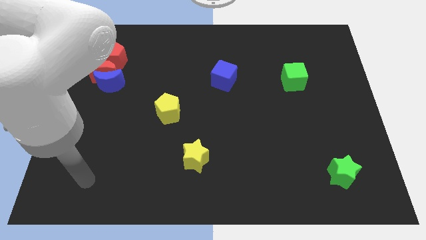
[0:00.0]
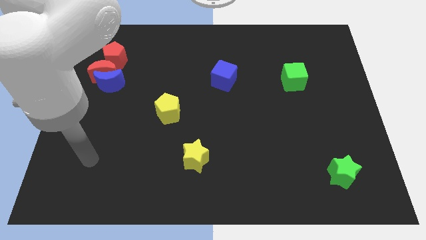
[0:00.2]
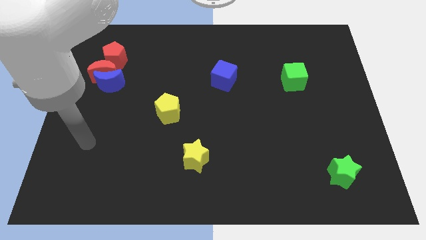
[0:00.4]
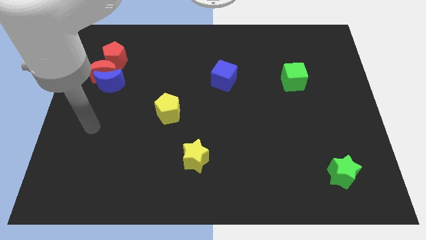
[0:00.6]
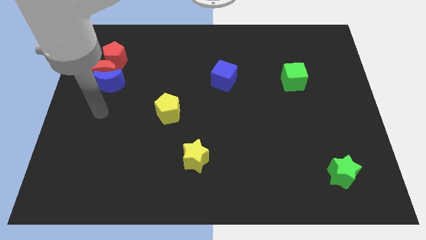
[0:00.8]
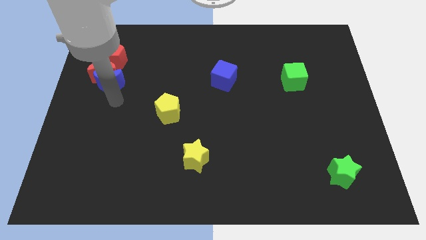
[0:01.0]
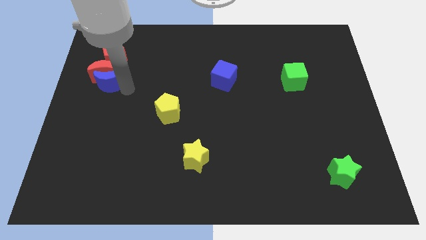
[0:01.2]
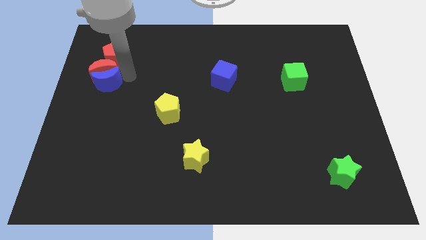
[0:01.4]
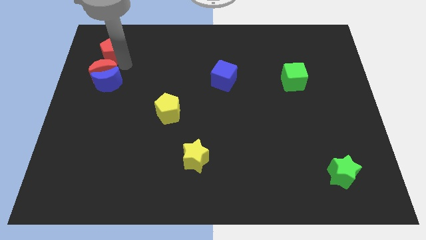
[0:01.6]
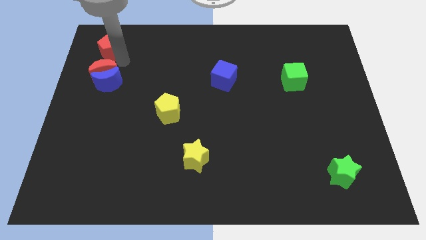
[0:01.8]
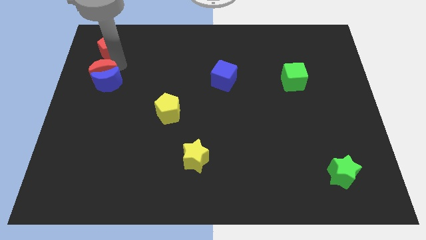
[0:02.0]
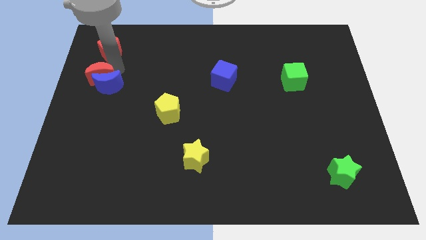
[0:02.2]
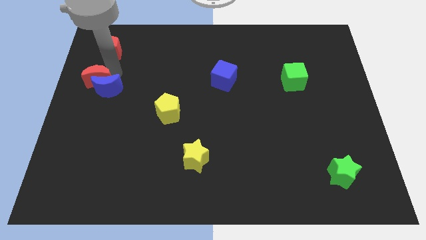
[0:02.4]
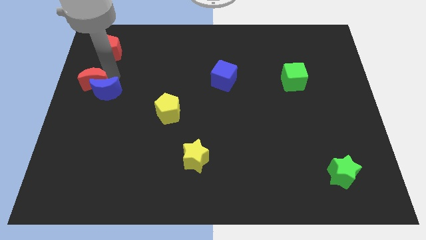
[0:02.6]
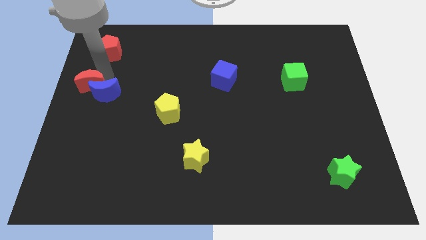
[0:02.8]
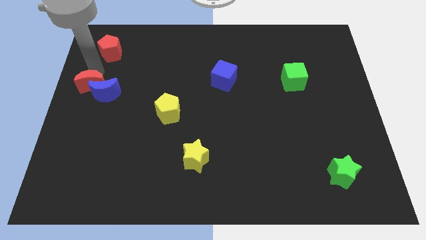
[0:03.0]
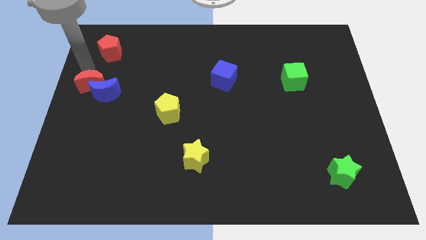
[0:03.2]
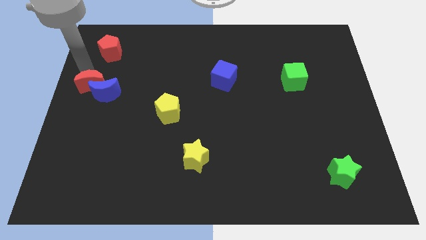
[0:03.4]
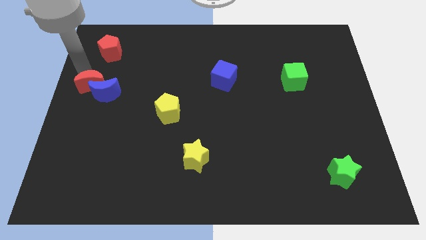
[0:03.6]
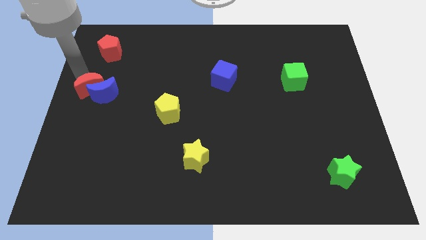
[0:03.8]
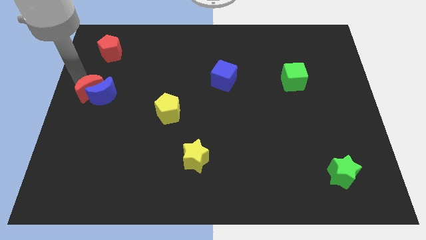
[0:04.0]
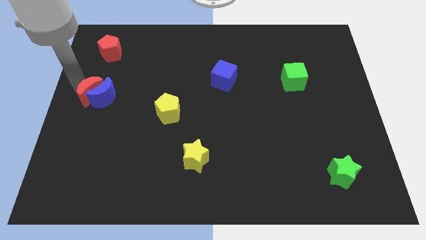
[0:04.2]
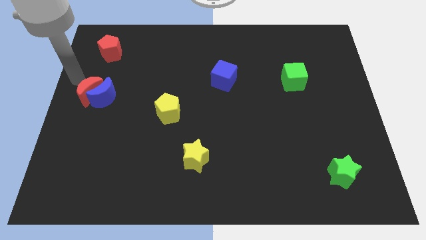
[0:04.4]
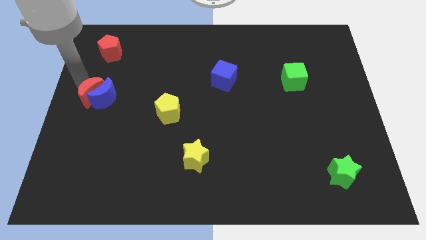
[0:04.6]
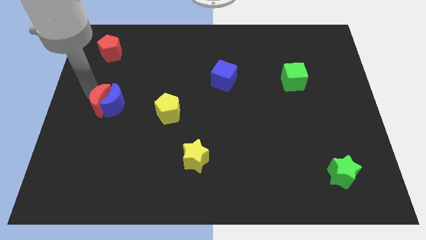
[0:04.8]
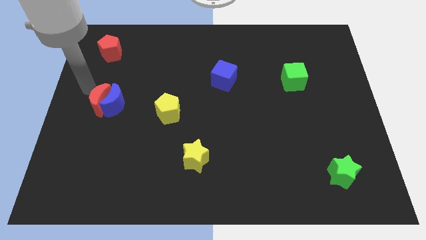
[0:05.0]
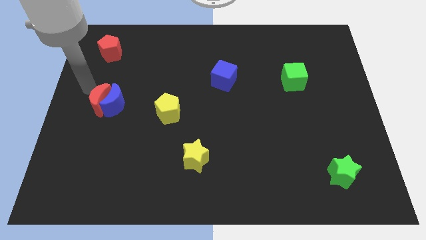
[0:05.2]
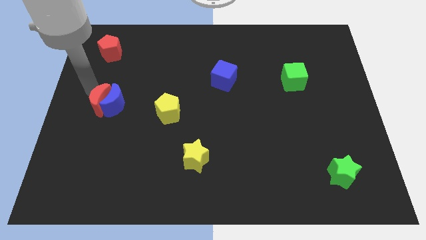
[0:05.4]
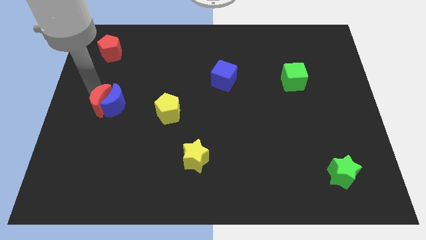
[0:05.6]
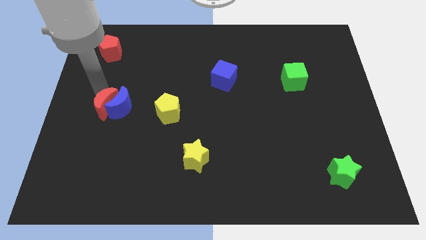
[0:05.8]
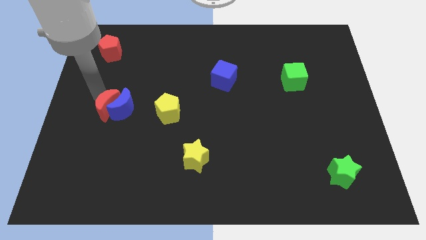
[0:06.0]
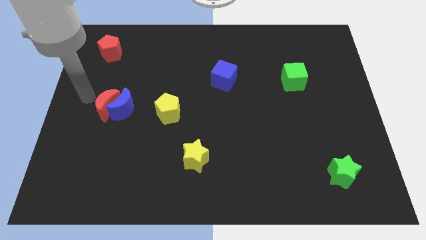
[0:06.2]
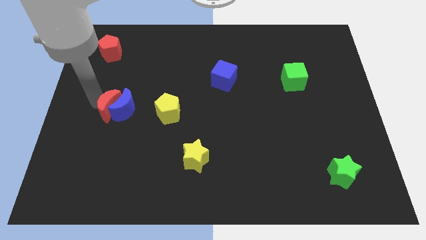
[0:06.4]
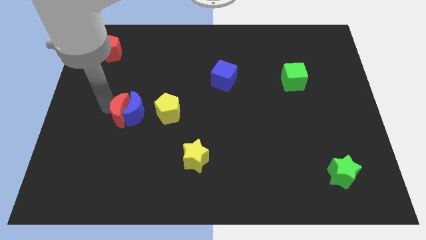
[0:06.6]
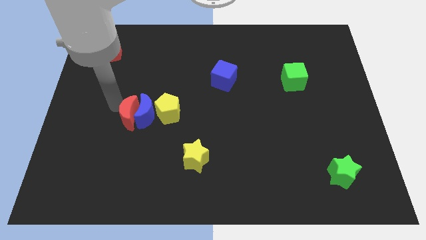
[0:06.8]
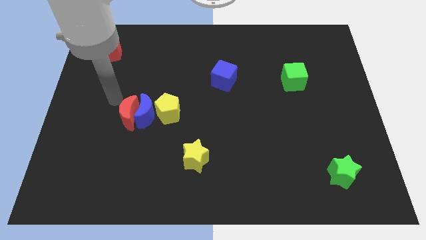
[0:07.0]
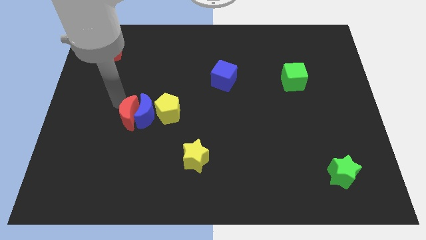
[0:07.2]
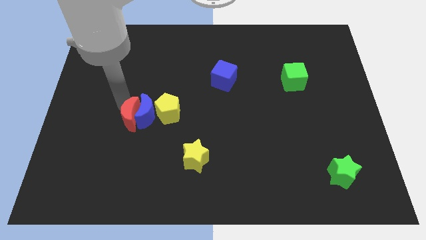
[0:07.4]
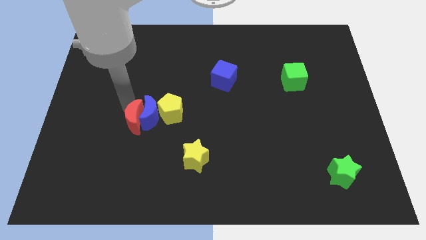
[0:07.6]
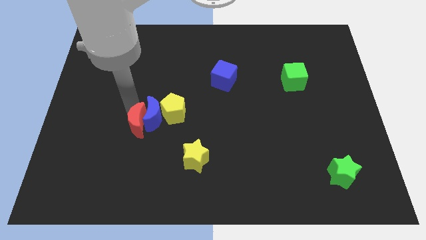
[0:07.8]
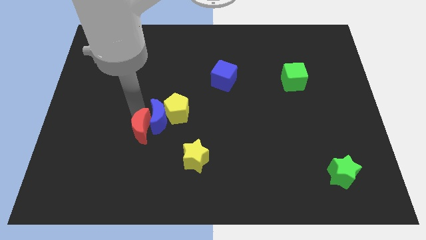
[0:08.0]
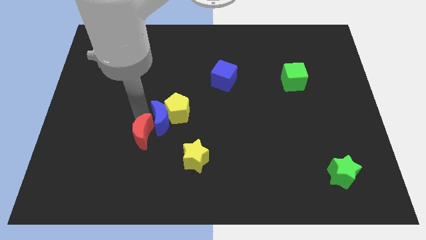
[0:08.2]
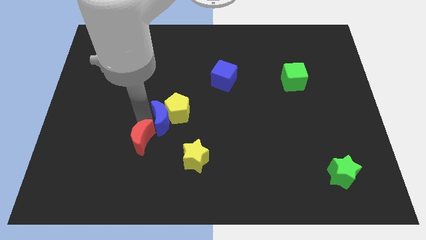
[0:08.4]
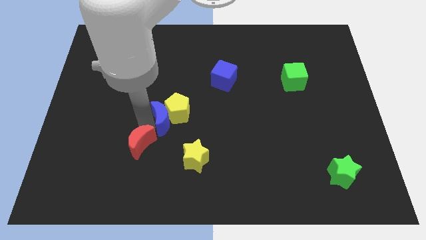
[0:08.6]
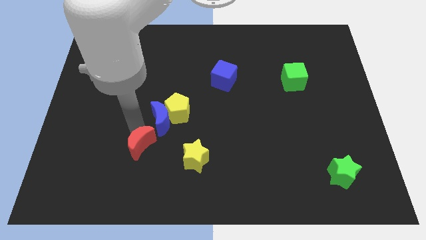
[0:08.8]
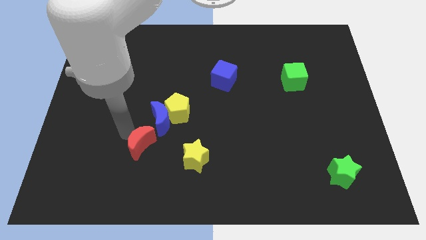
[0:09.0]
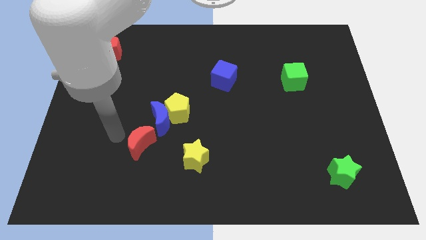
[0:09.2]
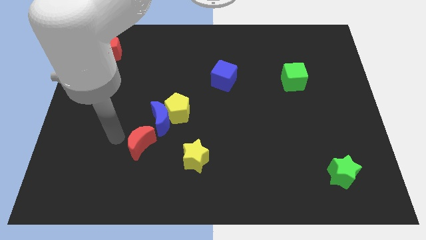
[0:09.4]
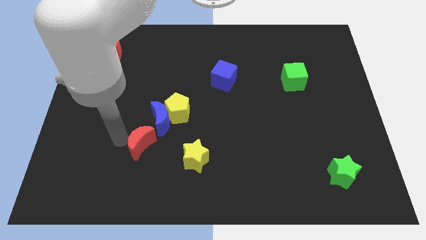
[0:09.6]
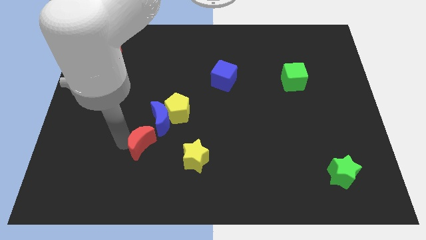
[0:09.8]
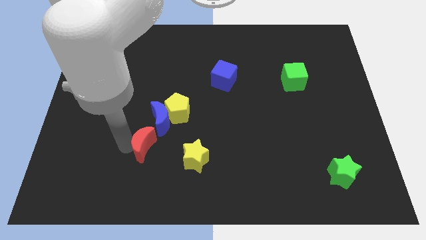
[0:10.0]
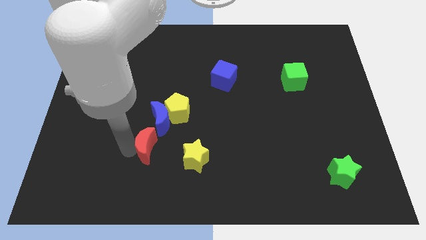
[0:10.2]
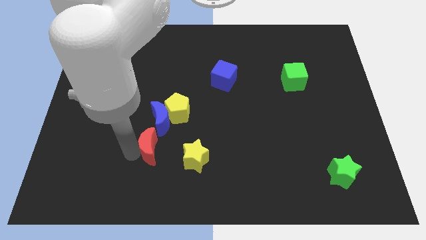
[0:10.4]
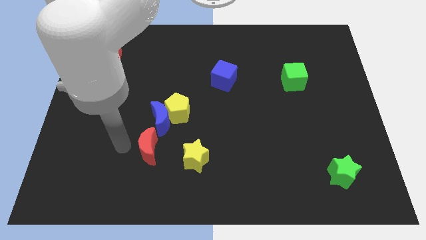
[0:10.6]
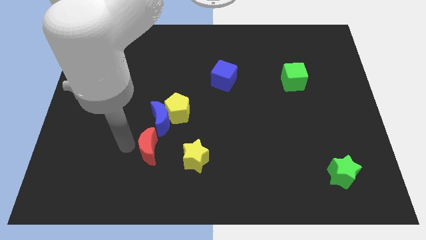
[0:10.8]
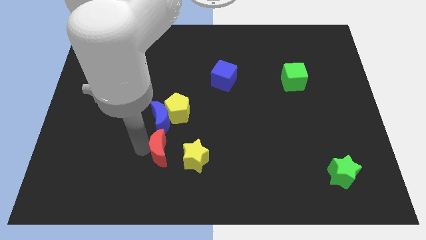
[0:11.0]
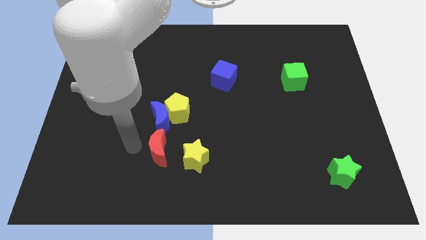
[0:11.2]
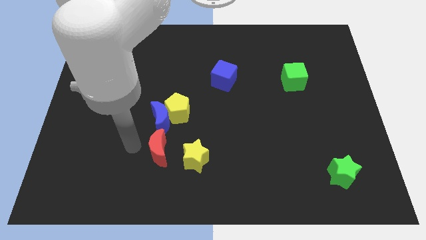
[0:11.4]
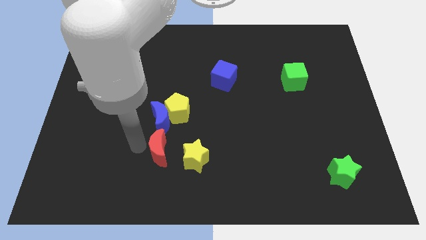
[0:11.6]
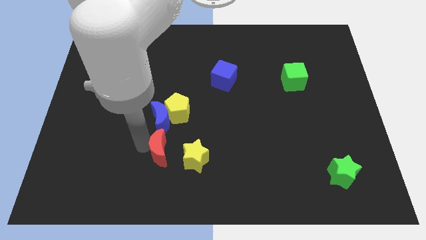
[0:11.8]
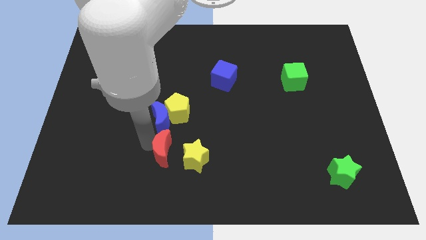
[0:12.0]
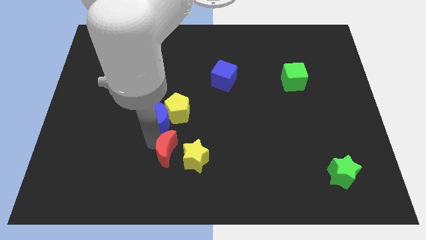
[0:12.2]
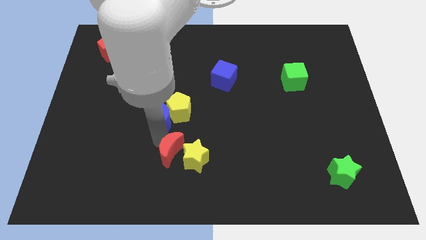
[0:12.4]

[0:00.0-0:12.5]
push the red moon to the yellow star
